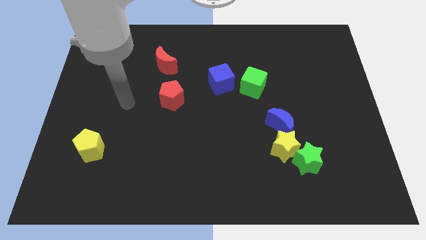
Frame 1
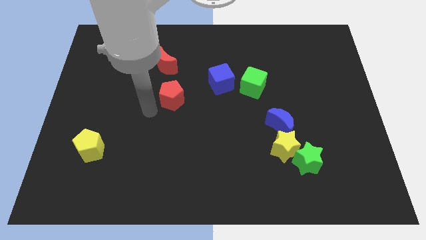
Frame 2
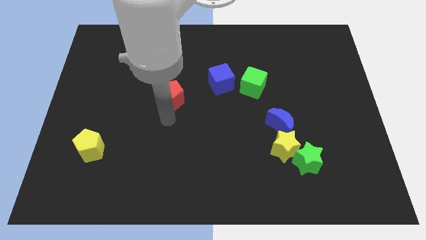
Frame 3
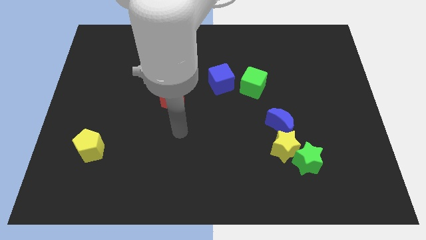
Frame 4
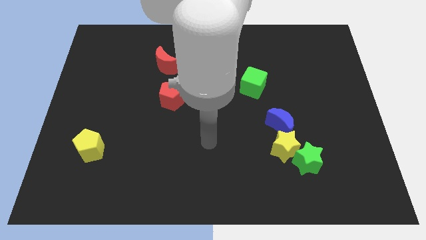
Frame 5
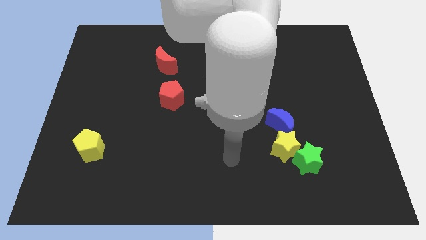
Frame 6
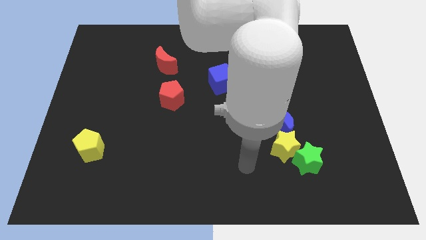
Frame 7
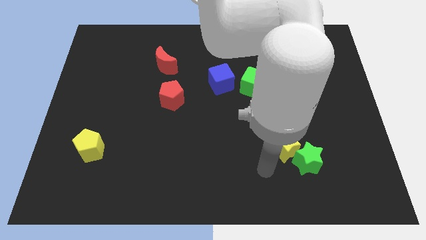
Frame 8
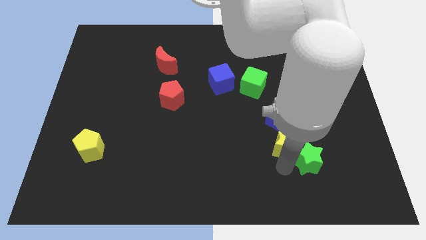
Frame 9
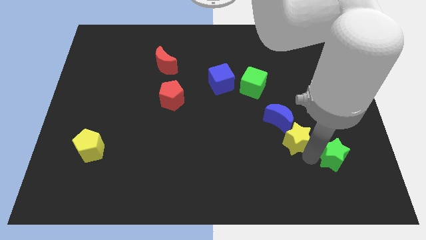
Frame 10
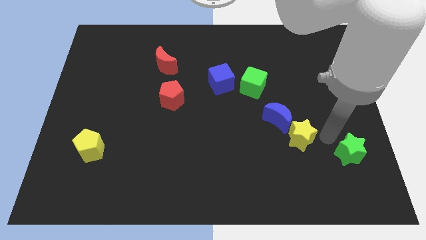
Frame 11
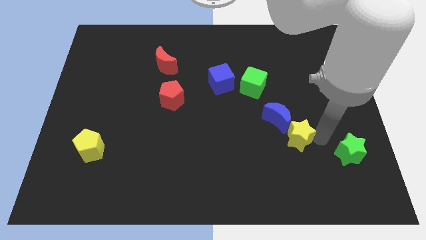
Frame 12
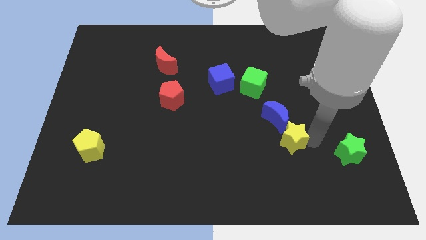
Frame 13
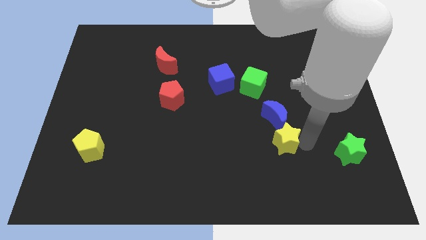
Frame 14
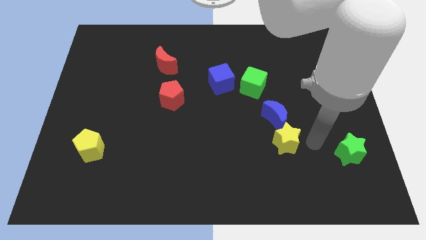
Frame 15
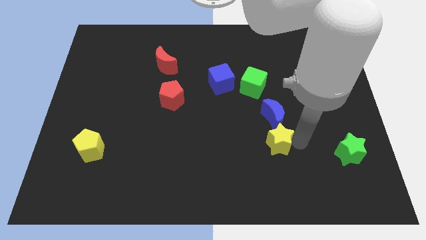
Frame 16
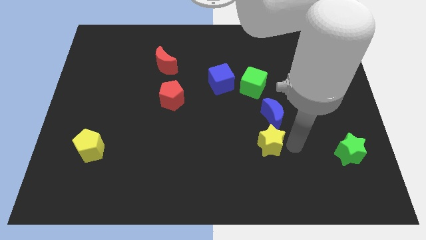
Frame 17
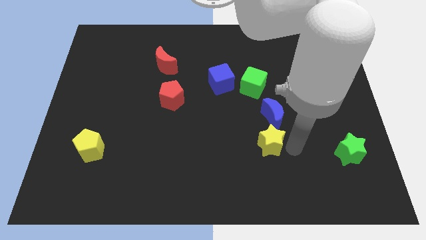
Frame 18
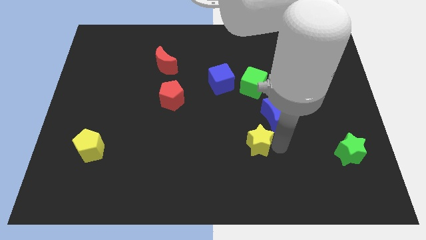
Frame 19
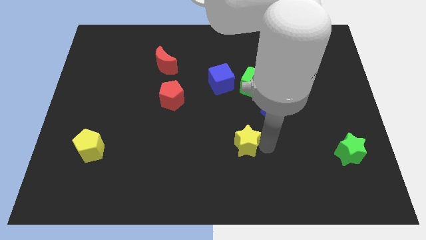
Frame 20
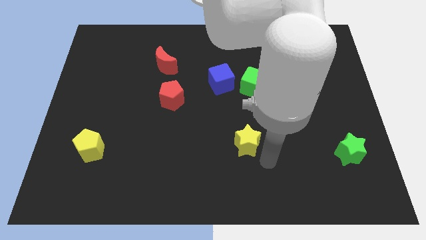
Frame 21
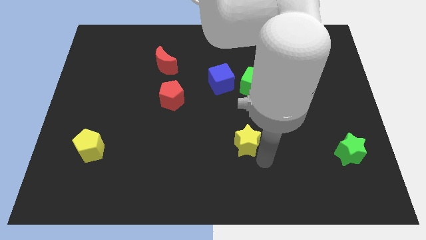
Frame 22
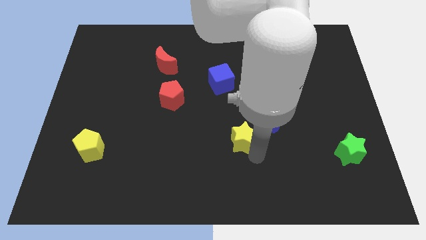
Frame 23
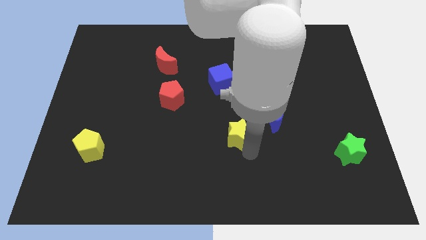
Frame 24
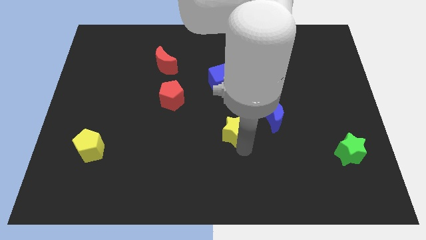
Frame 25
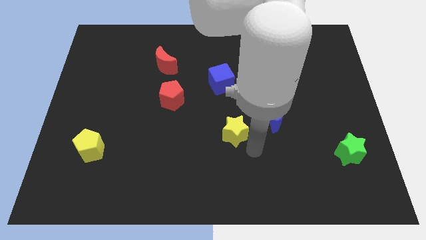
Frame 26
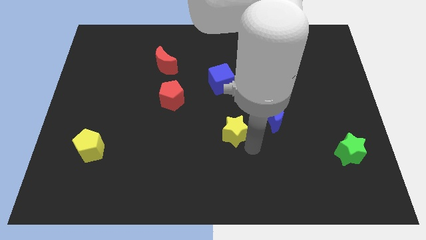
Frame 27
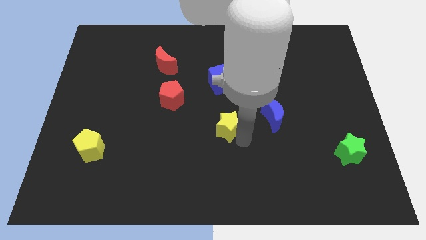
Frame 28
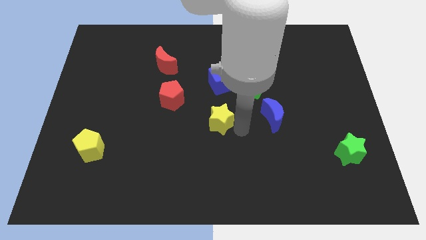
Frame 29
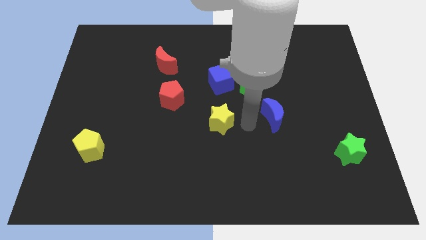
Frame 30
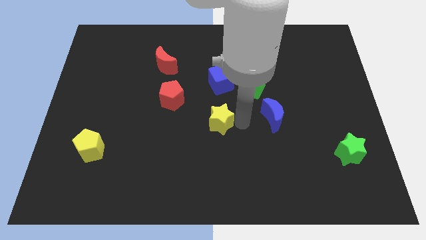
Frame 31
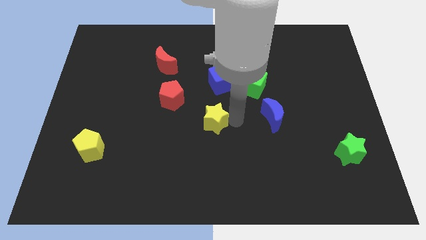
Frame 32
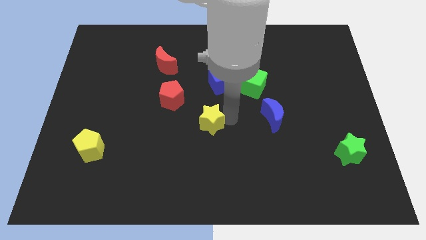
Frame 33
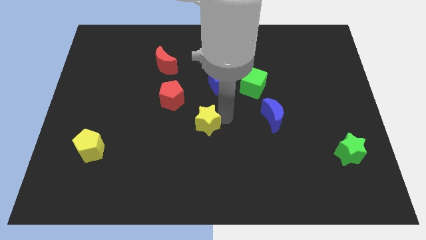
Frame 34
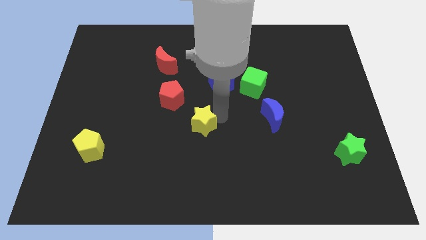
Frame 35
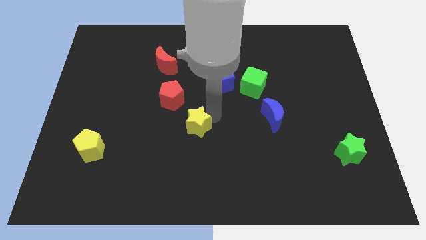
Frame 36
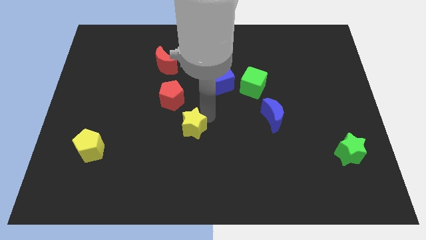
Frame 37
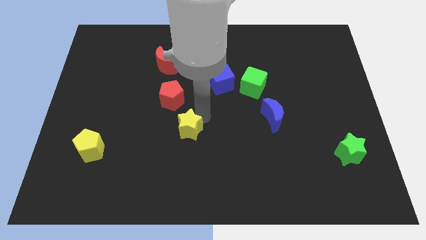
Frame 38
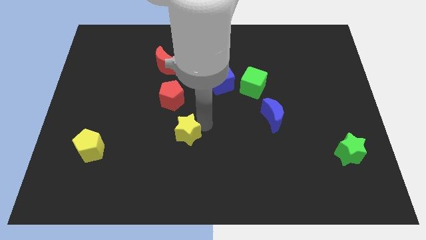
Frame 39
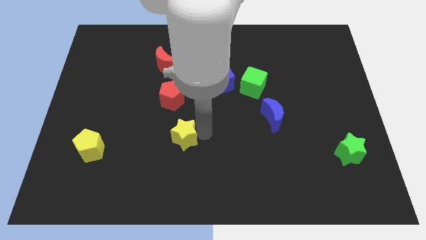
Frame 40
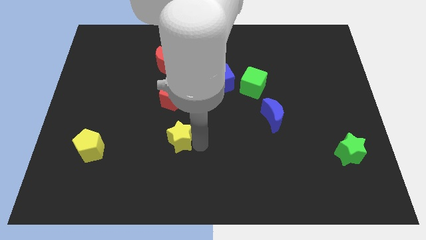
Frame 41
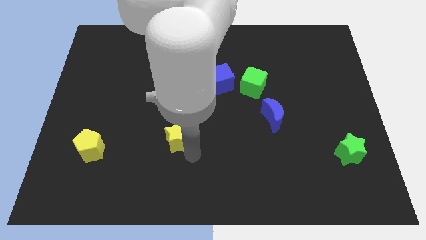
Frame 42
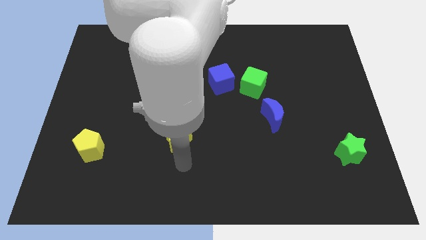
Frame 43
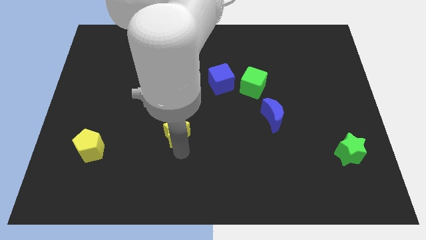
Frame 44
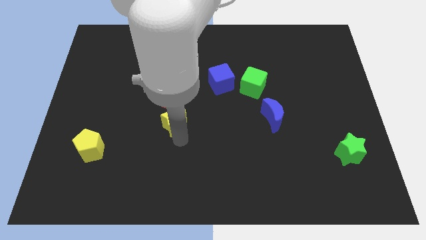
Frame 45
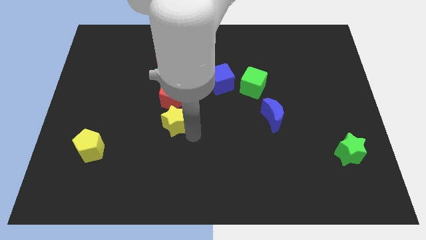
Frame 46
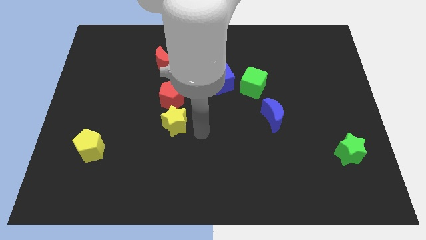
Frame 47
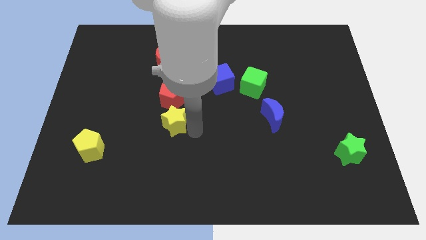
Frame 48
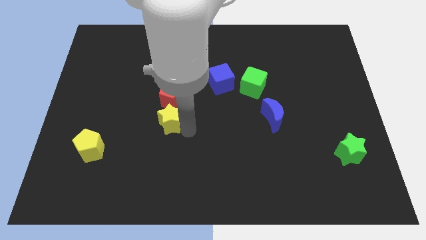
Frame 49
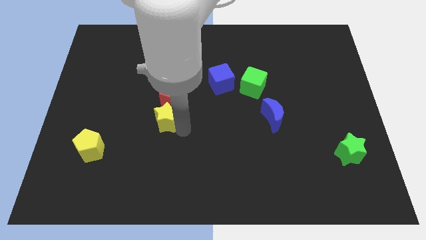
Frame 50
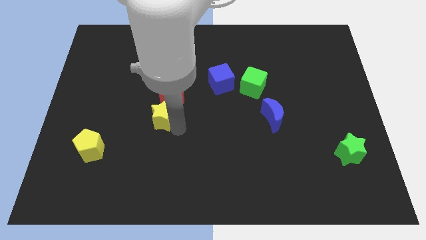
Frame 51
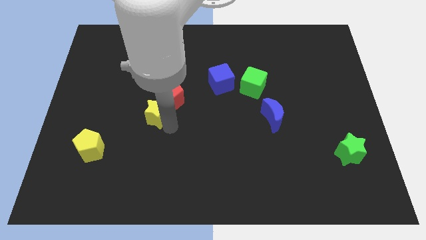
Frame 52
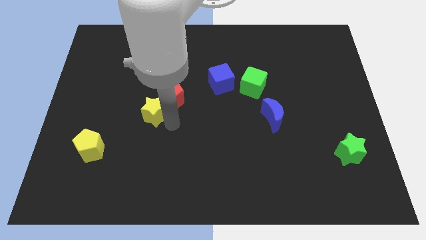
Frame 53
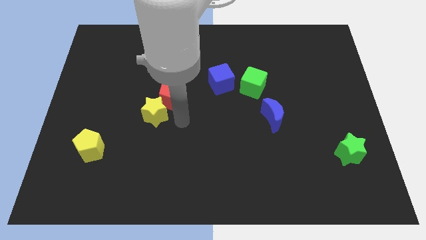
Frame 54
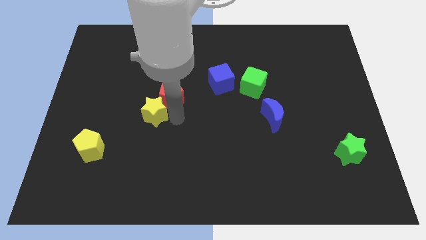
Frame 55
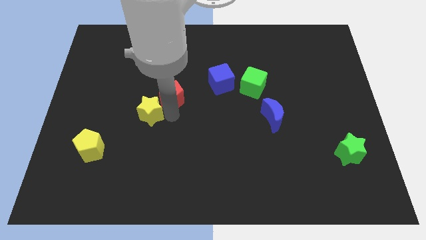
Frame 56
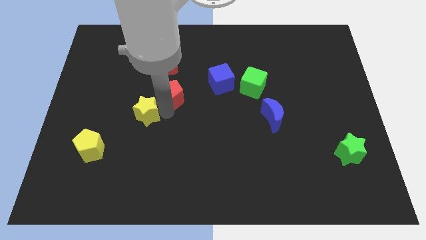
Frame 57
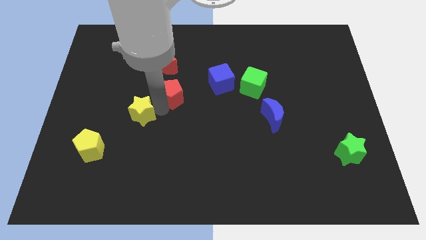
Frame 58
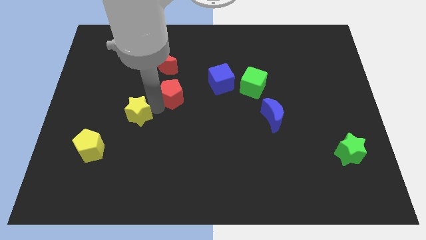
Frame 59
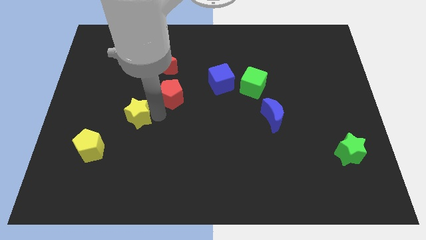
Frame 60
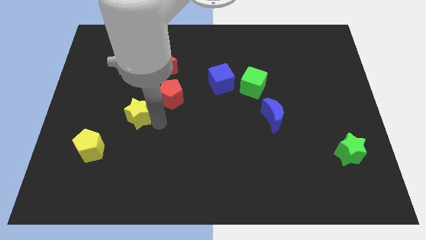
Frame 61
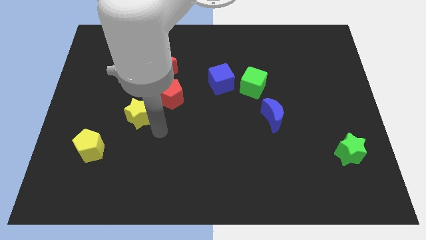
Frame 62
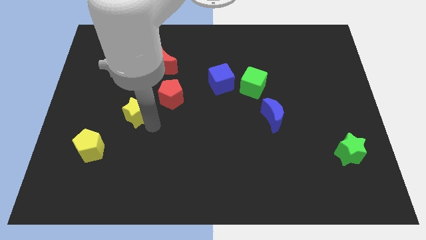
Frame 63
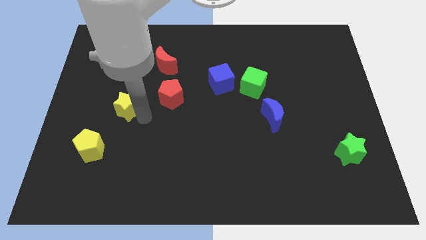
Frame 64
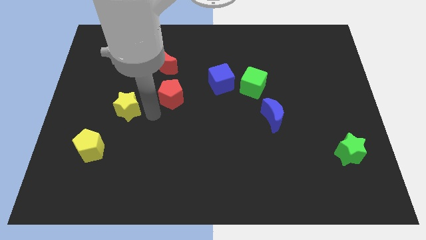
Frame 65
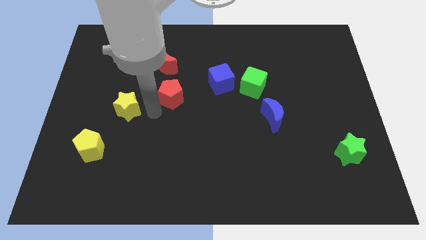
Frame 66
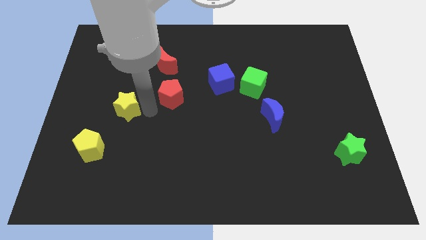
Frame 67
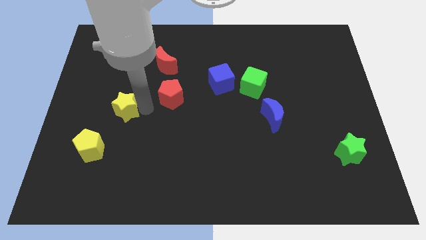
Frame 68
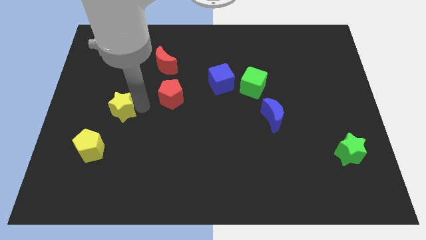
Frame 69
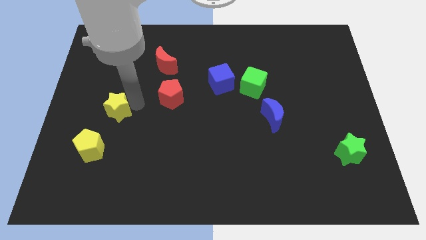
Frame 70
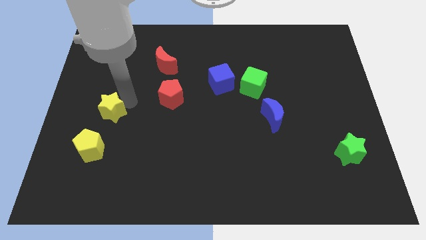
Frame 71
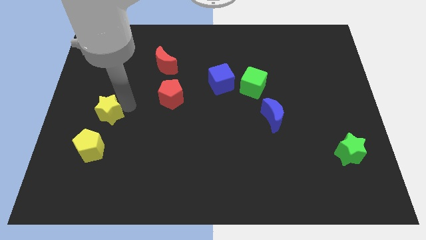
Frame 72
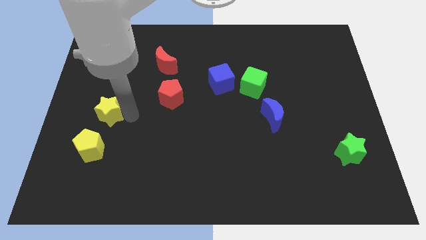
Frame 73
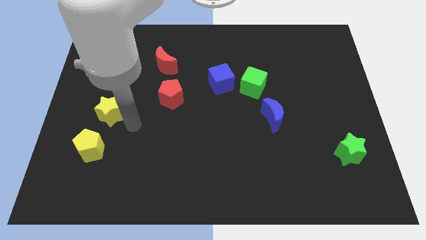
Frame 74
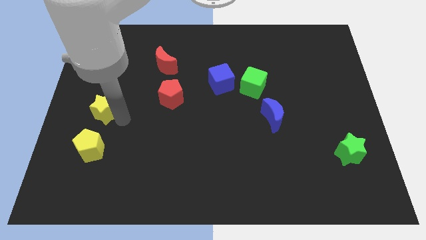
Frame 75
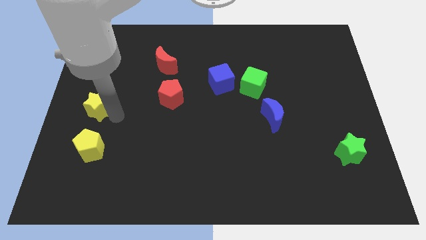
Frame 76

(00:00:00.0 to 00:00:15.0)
move the yellow star to the left side of the board
